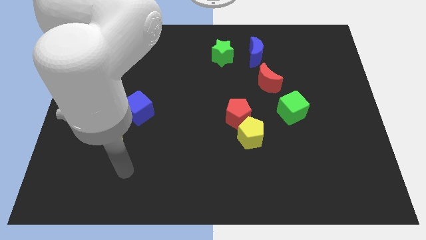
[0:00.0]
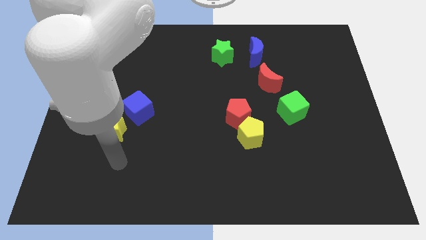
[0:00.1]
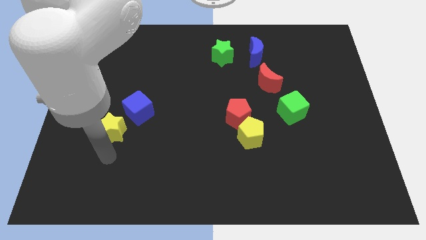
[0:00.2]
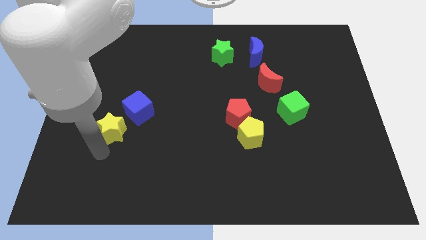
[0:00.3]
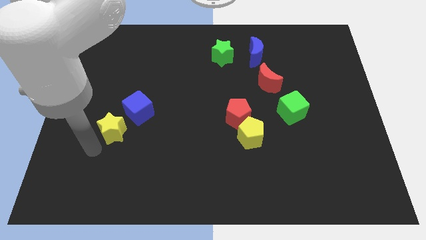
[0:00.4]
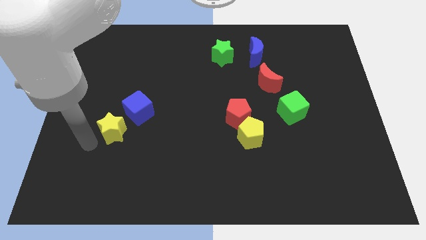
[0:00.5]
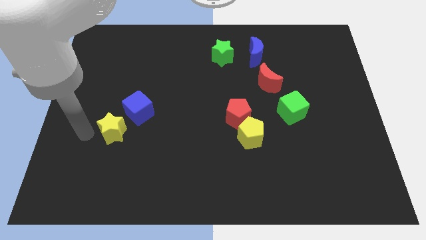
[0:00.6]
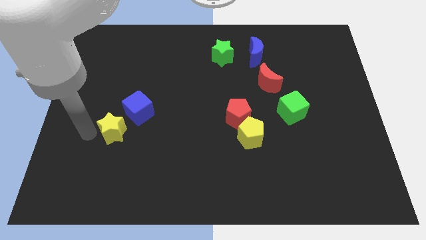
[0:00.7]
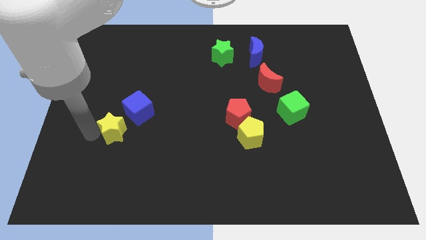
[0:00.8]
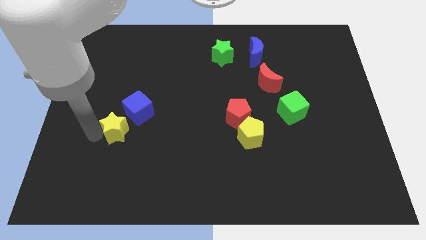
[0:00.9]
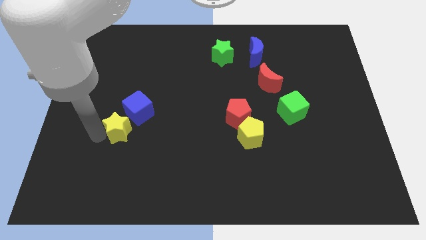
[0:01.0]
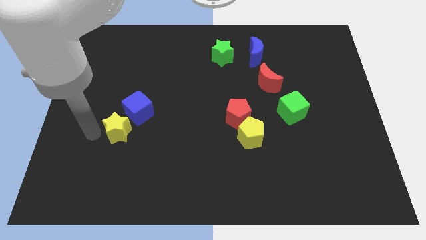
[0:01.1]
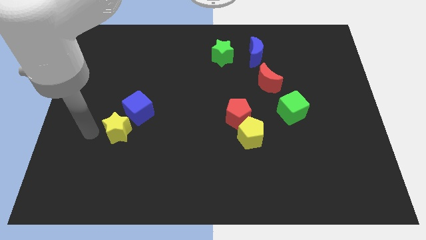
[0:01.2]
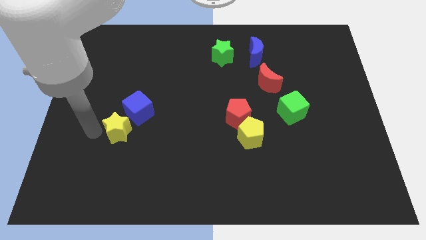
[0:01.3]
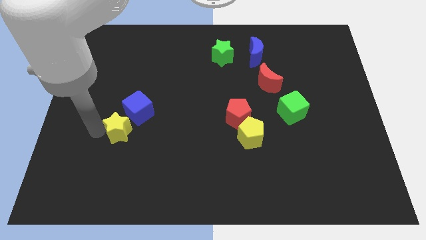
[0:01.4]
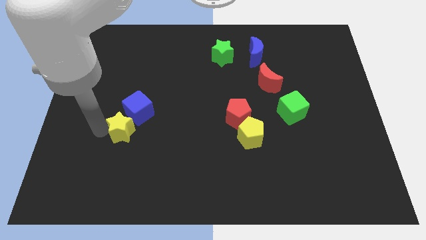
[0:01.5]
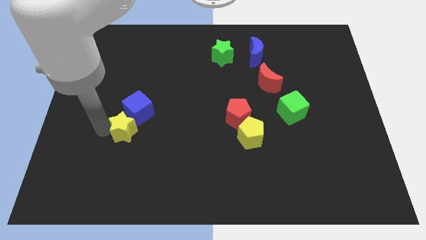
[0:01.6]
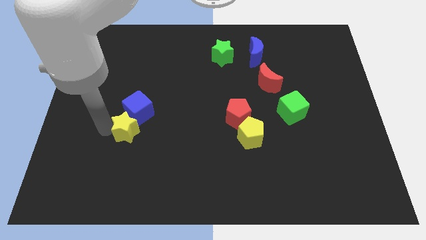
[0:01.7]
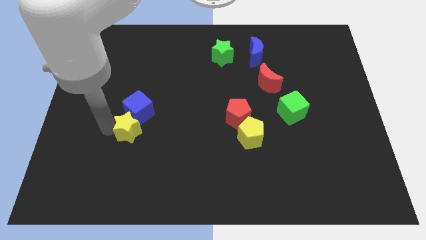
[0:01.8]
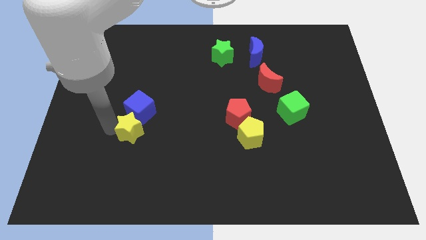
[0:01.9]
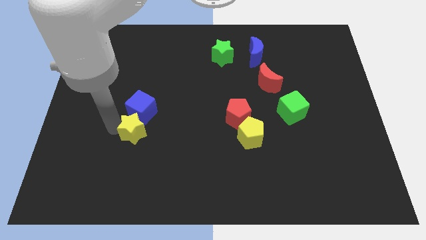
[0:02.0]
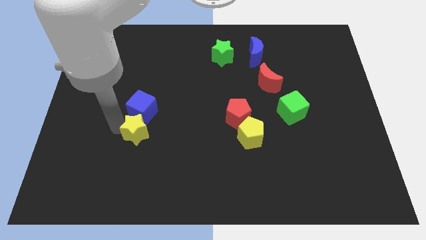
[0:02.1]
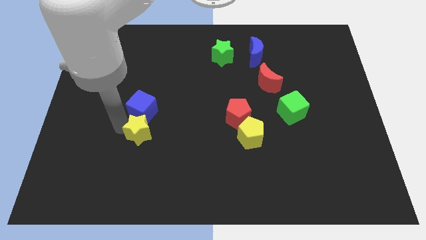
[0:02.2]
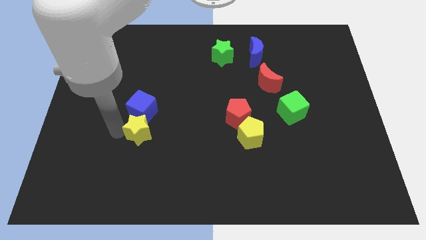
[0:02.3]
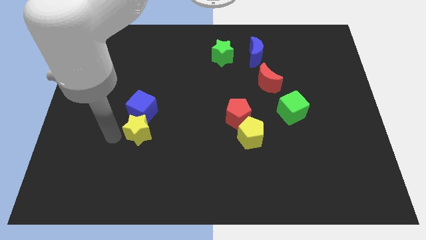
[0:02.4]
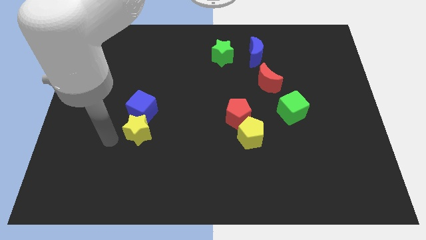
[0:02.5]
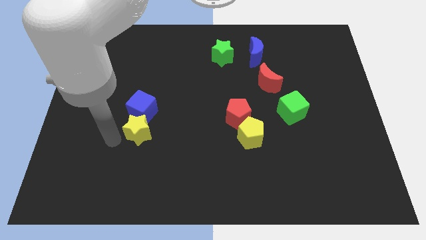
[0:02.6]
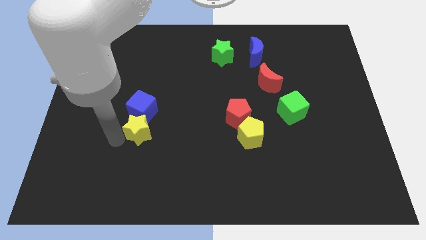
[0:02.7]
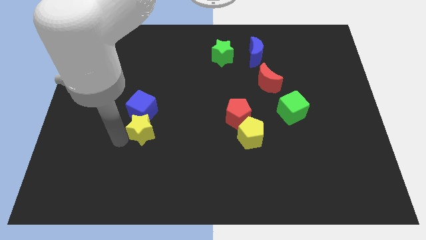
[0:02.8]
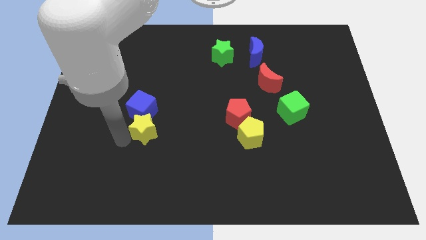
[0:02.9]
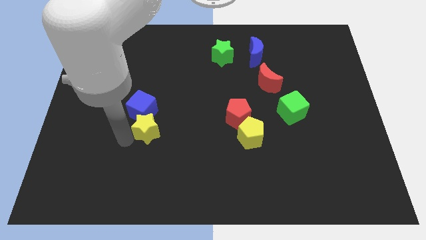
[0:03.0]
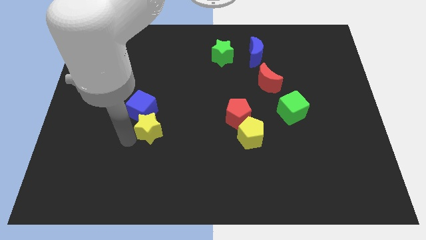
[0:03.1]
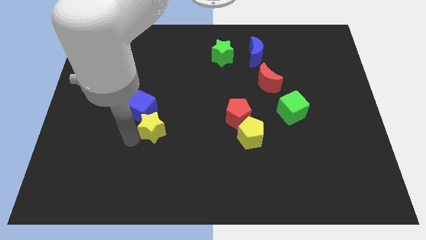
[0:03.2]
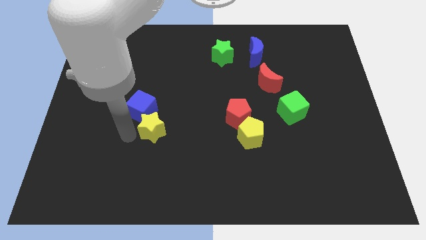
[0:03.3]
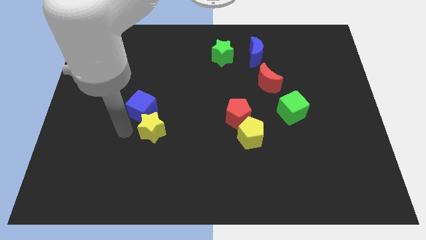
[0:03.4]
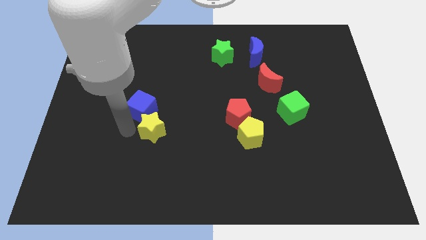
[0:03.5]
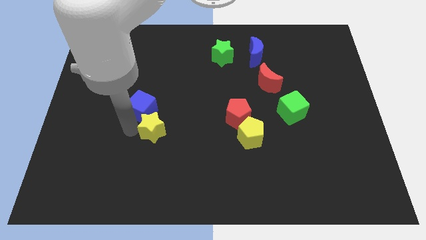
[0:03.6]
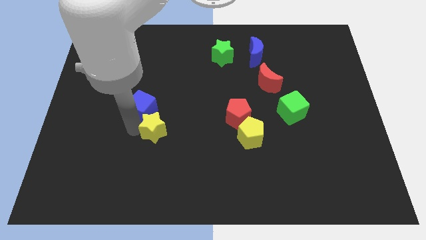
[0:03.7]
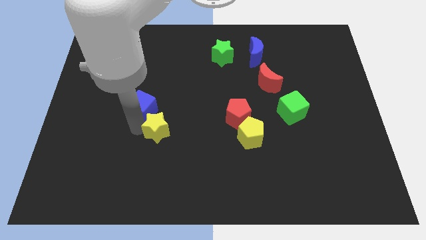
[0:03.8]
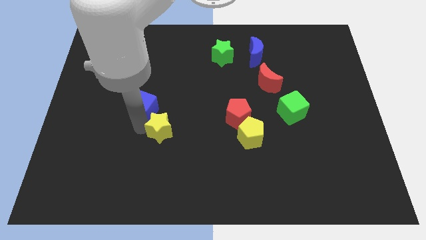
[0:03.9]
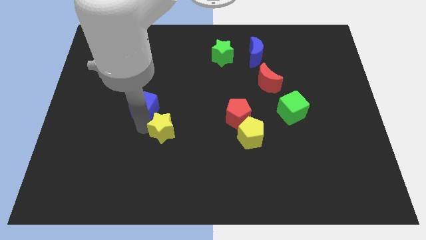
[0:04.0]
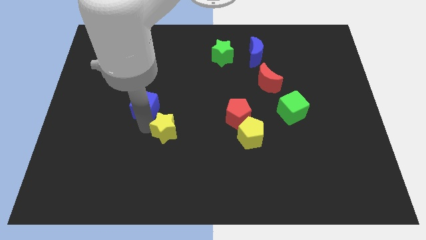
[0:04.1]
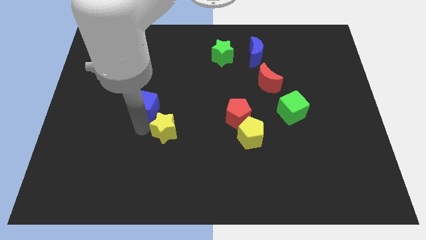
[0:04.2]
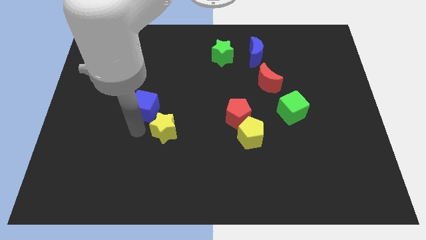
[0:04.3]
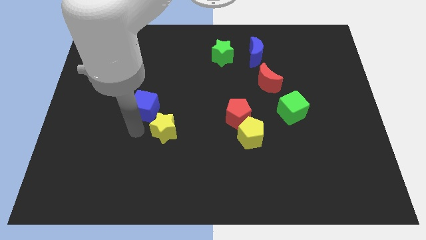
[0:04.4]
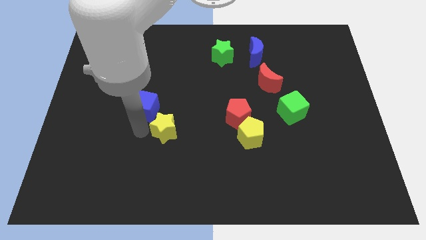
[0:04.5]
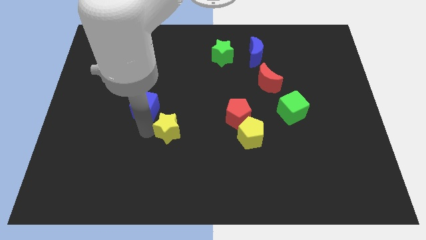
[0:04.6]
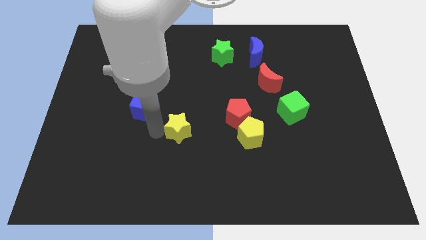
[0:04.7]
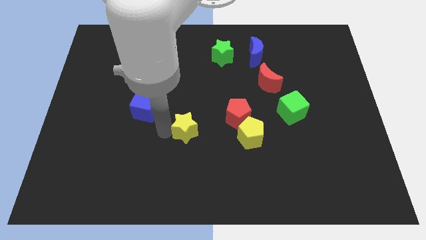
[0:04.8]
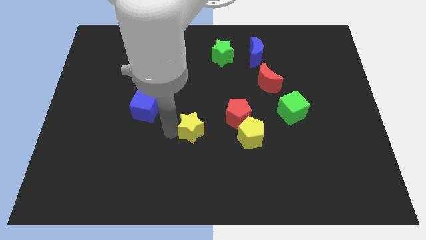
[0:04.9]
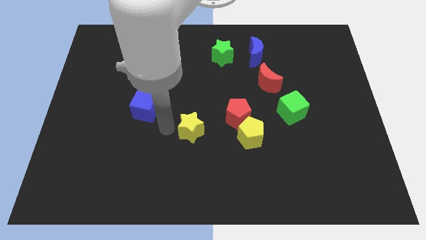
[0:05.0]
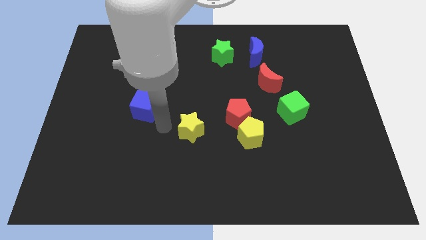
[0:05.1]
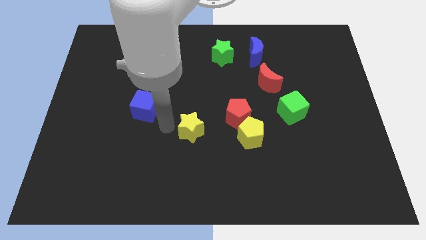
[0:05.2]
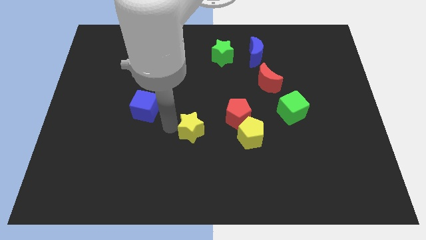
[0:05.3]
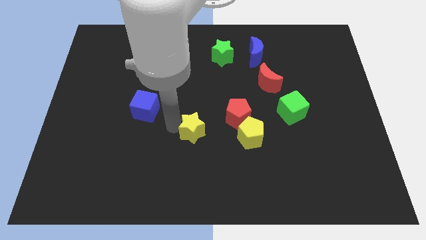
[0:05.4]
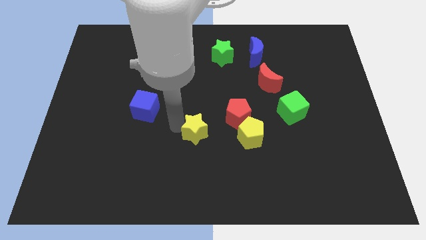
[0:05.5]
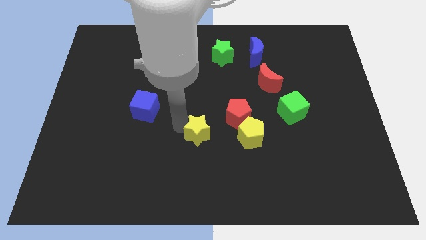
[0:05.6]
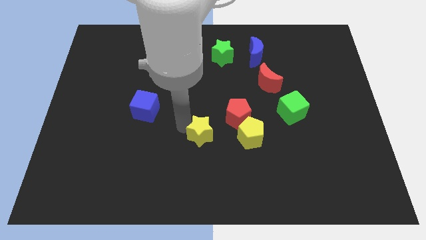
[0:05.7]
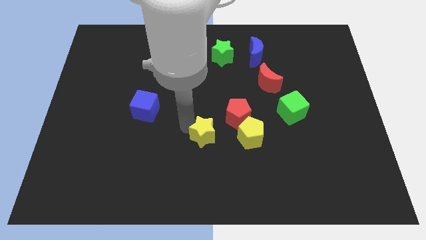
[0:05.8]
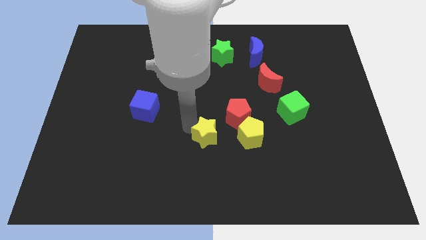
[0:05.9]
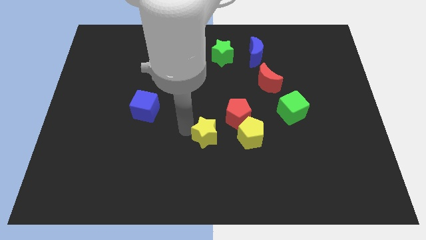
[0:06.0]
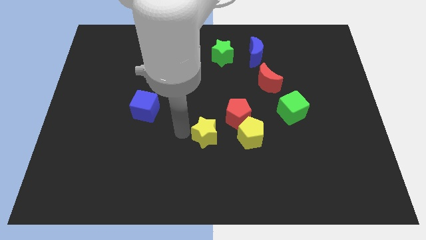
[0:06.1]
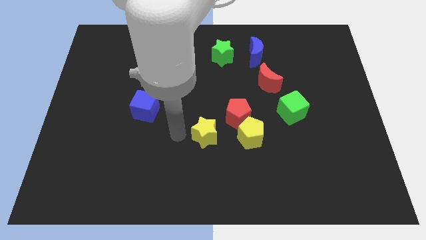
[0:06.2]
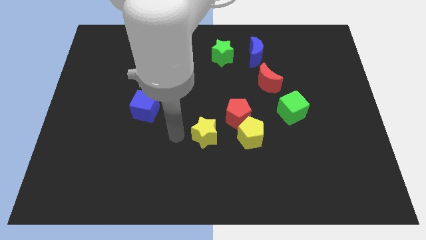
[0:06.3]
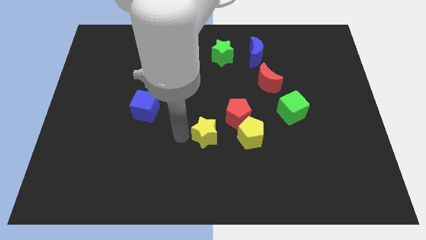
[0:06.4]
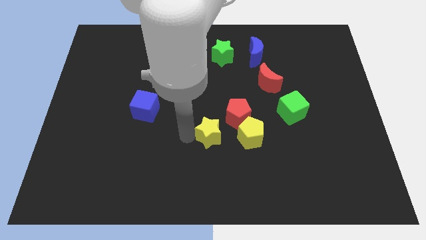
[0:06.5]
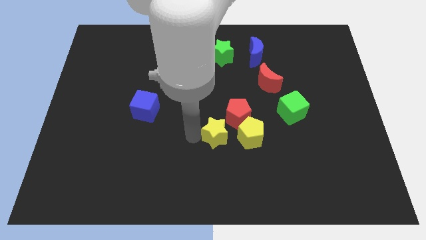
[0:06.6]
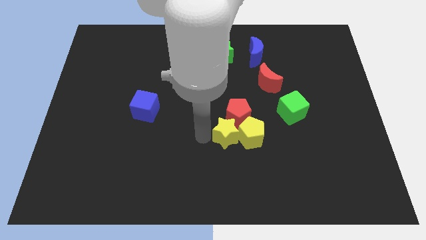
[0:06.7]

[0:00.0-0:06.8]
put the yellow star towards the yellow pentagon

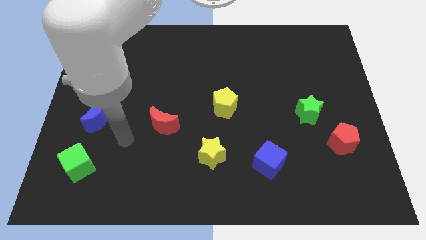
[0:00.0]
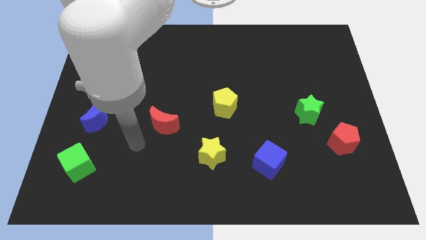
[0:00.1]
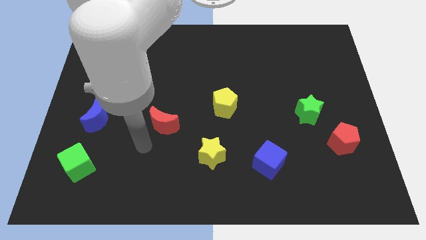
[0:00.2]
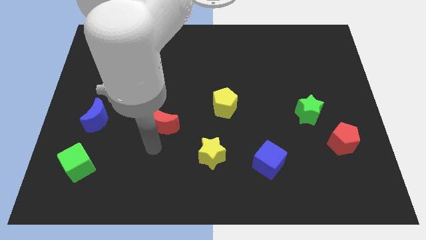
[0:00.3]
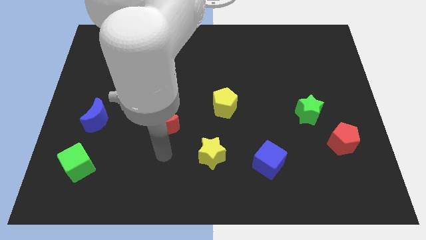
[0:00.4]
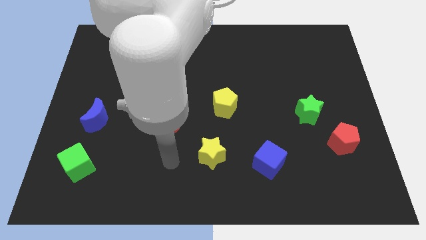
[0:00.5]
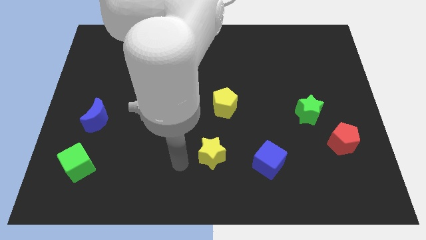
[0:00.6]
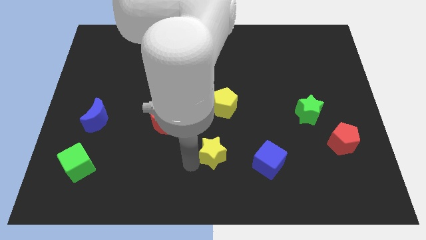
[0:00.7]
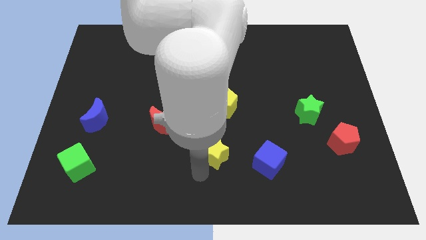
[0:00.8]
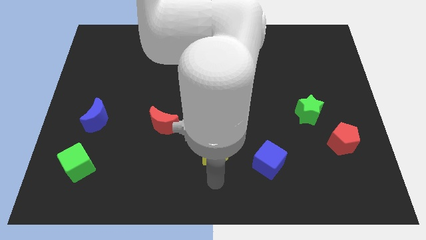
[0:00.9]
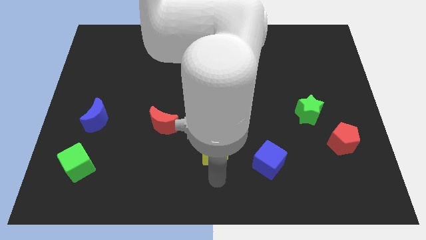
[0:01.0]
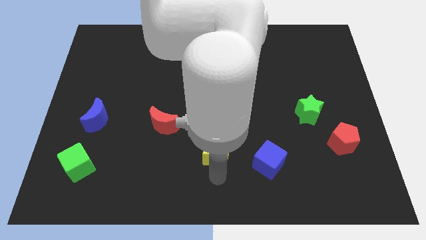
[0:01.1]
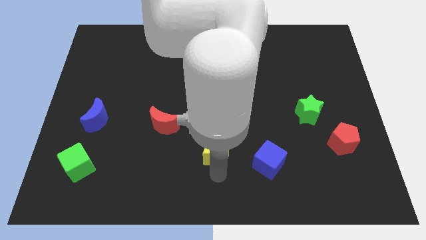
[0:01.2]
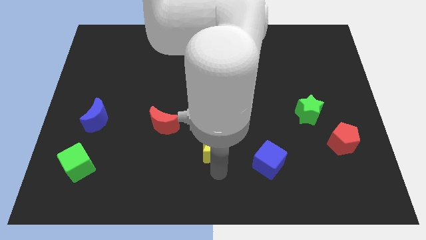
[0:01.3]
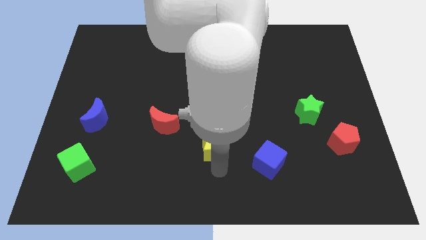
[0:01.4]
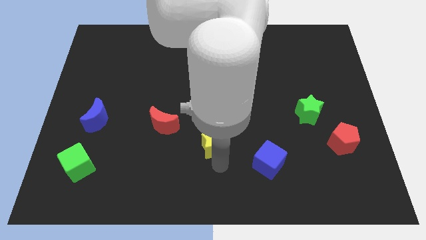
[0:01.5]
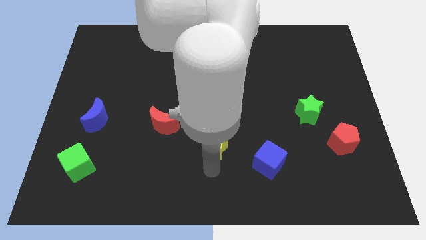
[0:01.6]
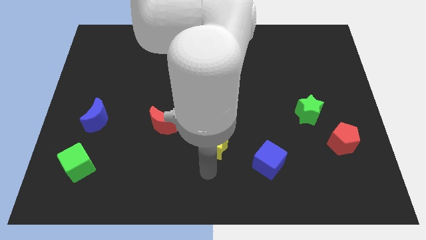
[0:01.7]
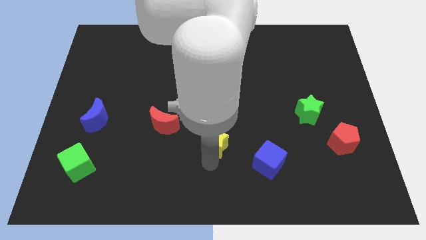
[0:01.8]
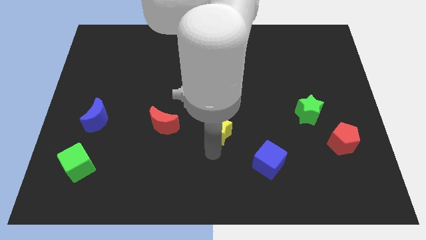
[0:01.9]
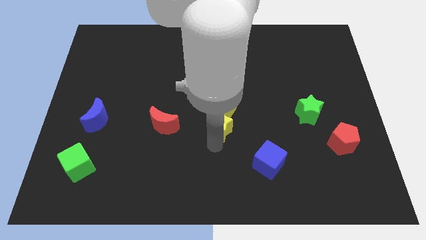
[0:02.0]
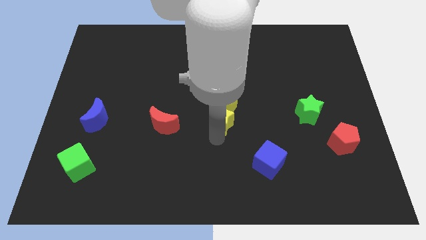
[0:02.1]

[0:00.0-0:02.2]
push the yellow star to the yellow pentagon
